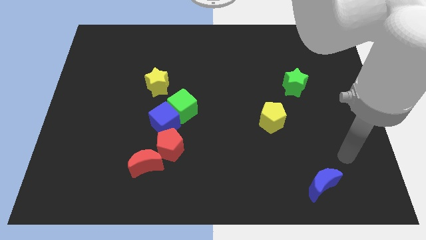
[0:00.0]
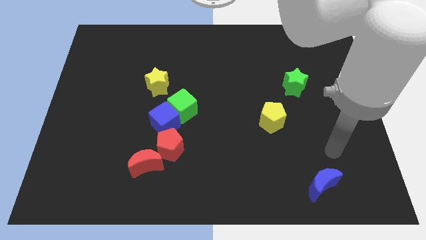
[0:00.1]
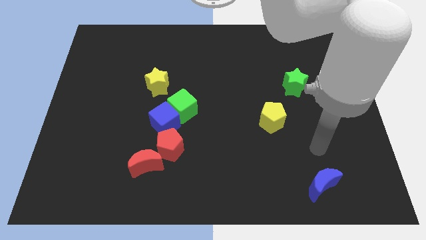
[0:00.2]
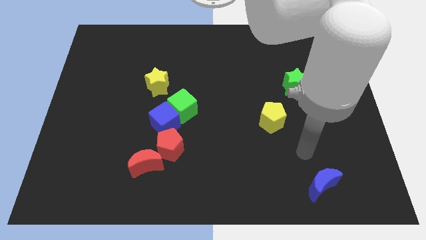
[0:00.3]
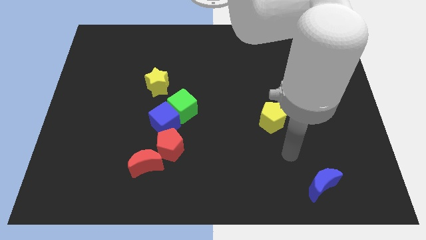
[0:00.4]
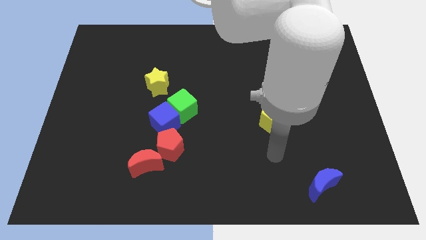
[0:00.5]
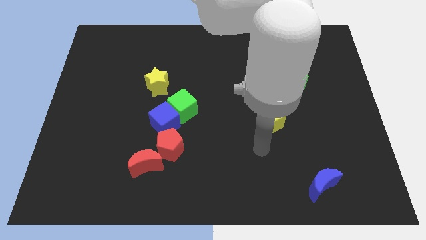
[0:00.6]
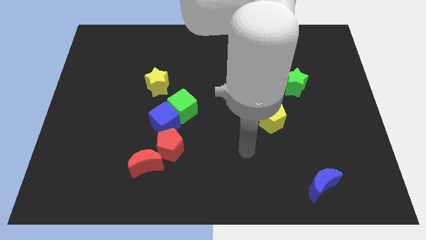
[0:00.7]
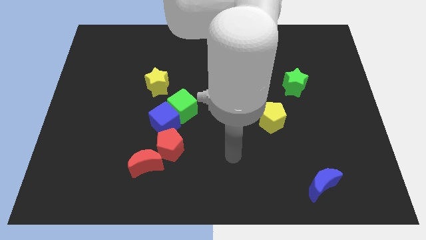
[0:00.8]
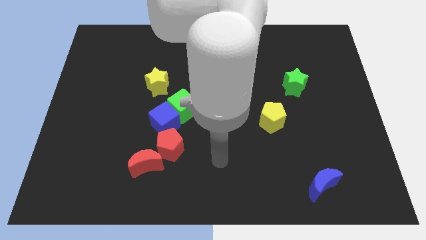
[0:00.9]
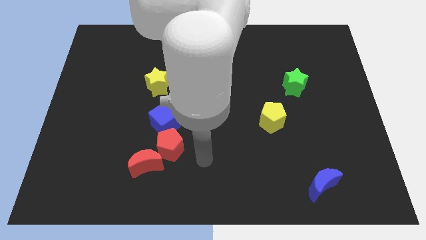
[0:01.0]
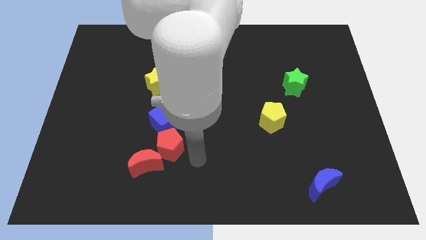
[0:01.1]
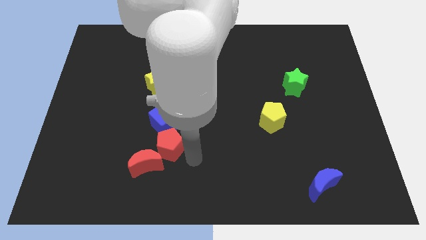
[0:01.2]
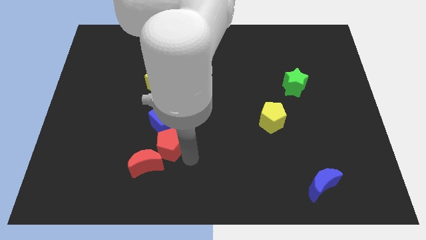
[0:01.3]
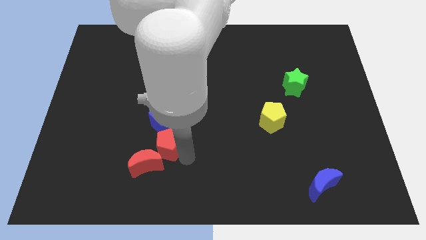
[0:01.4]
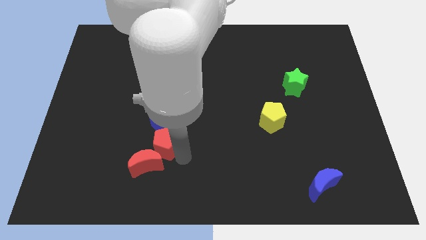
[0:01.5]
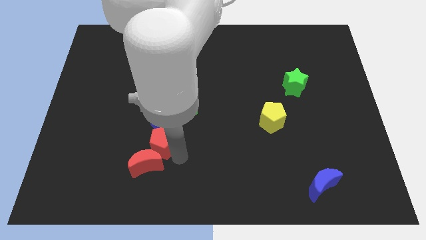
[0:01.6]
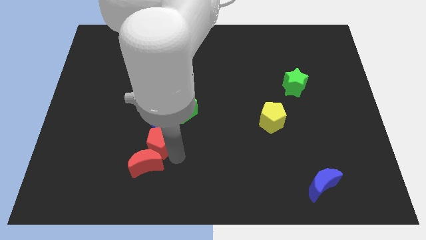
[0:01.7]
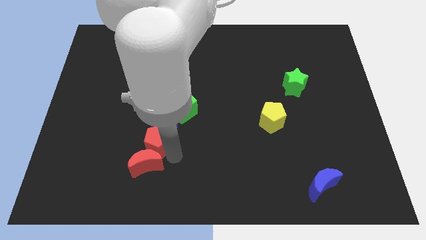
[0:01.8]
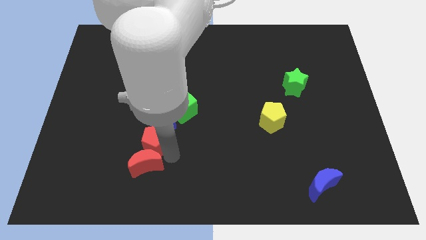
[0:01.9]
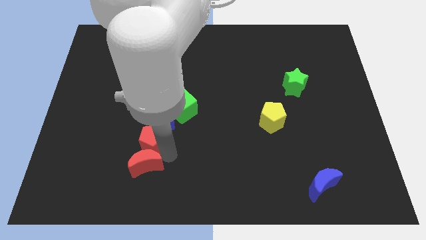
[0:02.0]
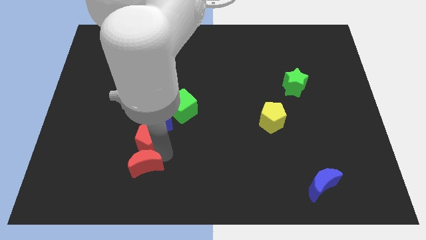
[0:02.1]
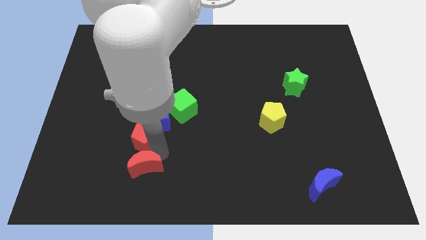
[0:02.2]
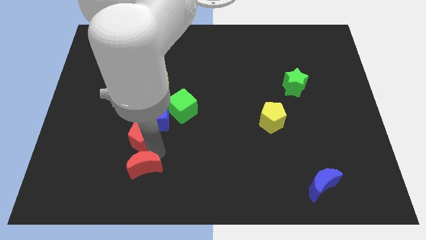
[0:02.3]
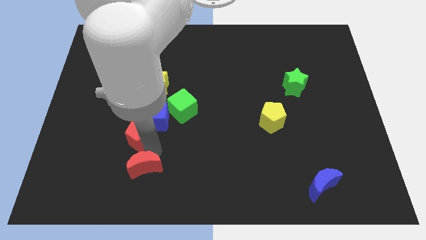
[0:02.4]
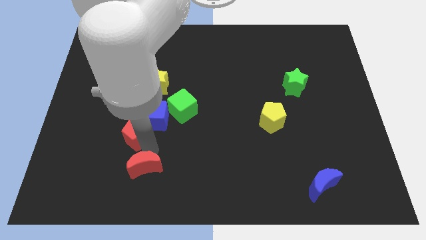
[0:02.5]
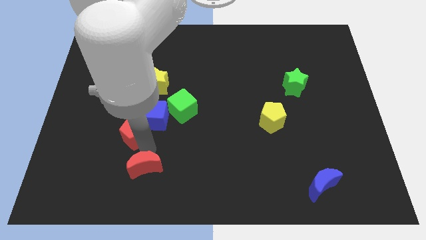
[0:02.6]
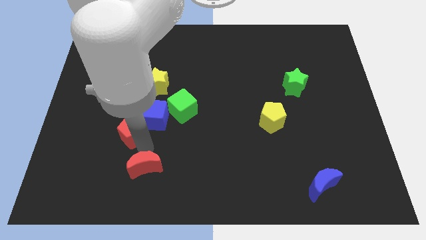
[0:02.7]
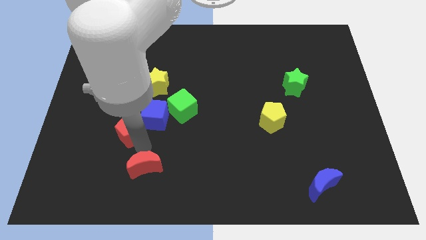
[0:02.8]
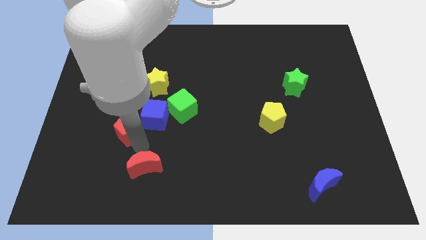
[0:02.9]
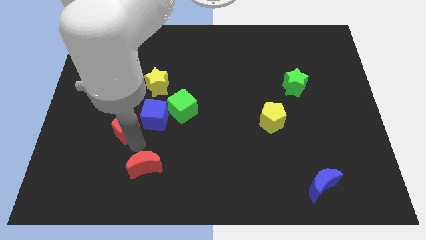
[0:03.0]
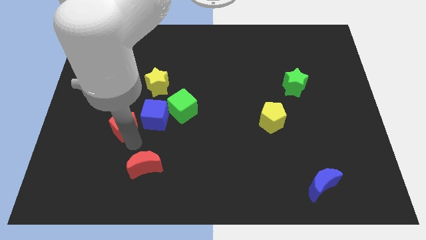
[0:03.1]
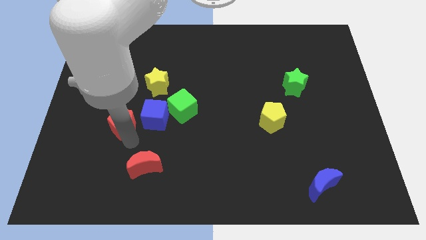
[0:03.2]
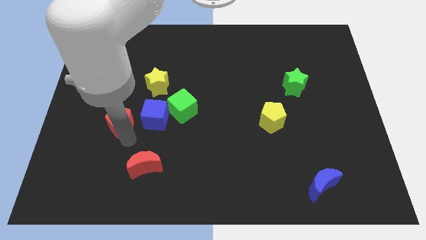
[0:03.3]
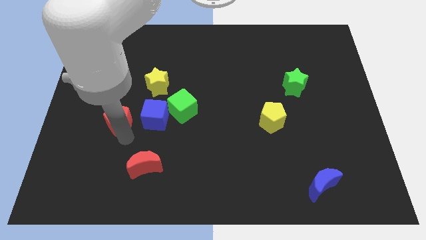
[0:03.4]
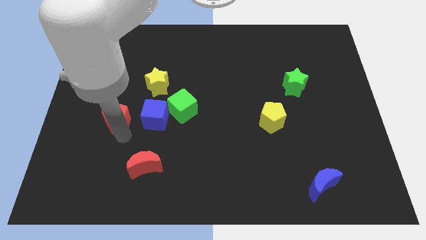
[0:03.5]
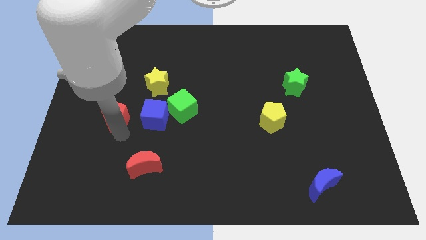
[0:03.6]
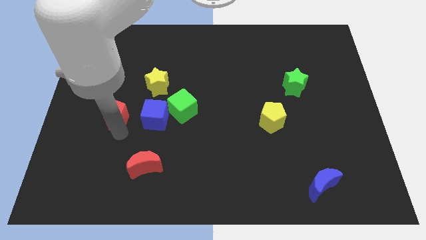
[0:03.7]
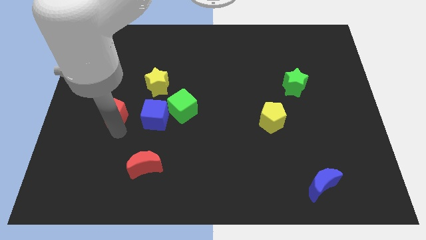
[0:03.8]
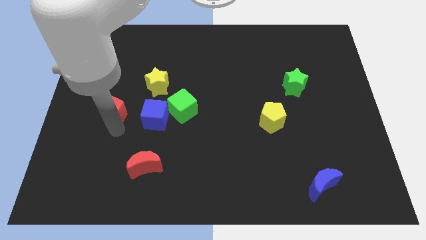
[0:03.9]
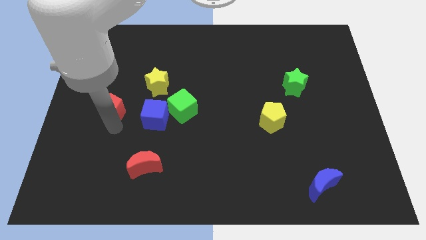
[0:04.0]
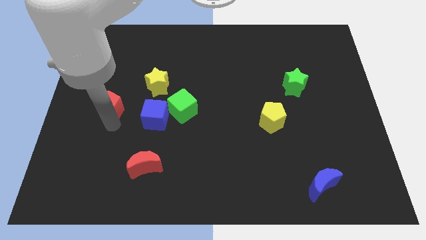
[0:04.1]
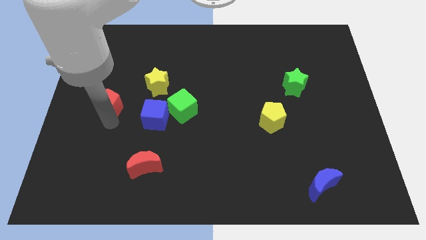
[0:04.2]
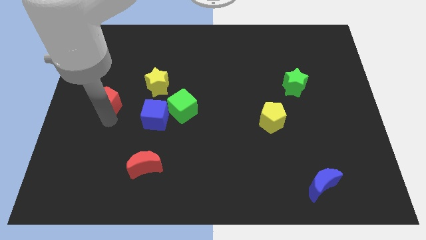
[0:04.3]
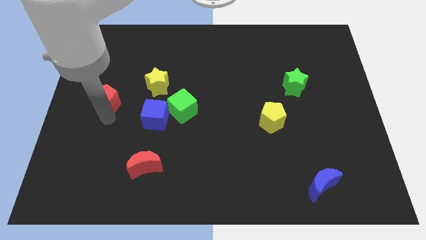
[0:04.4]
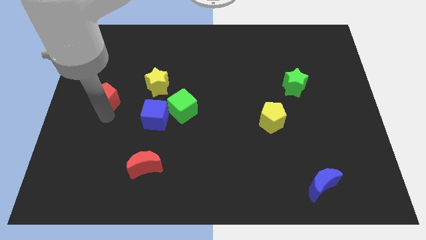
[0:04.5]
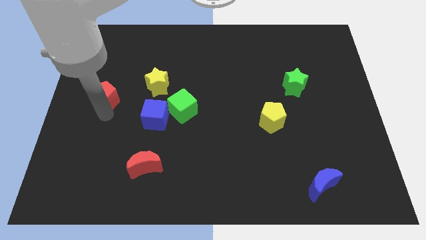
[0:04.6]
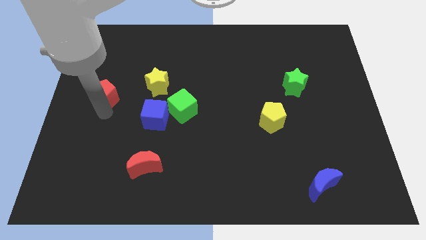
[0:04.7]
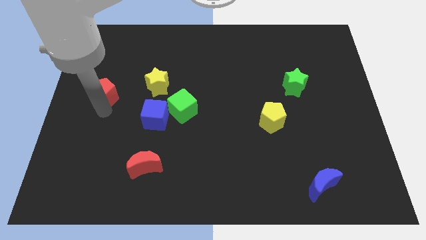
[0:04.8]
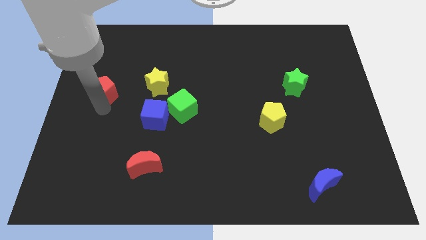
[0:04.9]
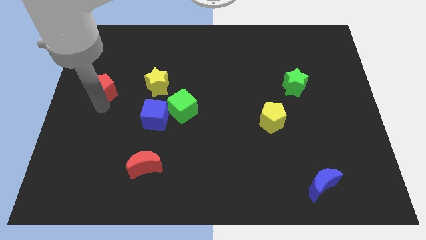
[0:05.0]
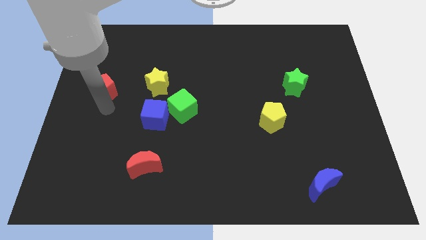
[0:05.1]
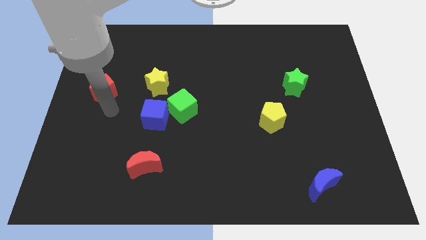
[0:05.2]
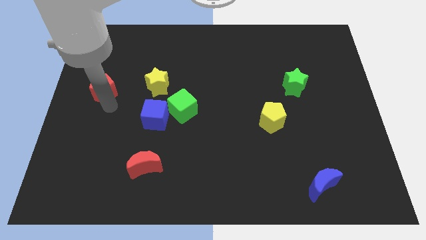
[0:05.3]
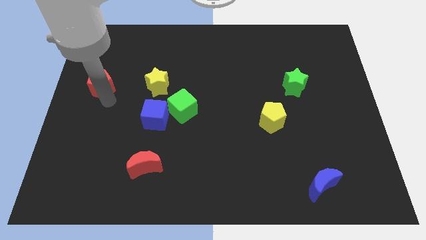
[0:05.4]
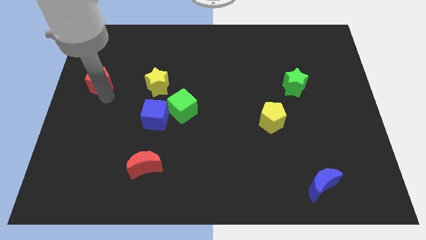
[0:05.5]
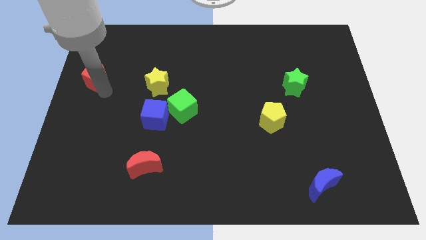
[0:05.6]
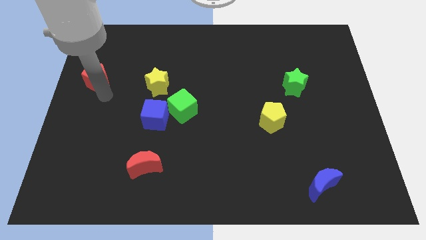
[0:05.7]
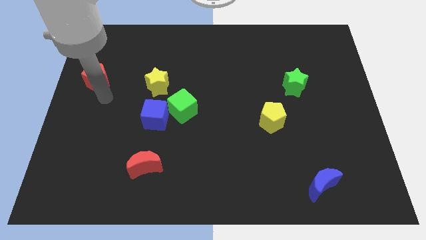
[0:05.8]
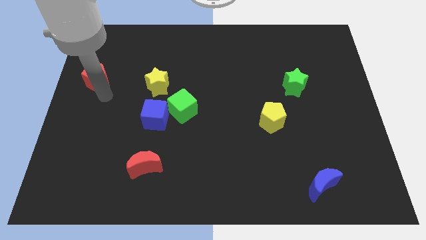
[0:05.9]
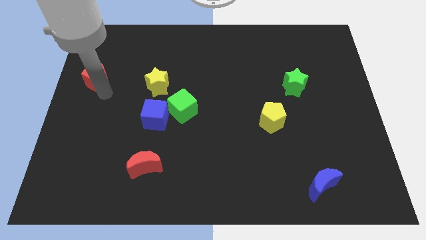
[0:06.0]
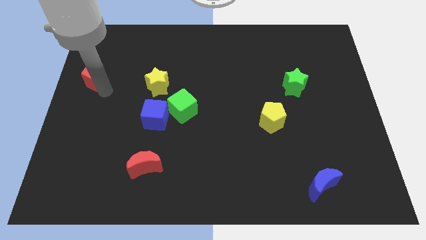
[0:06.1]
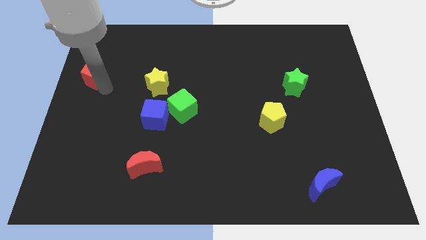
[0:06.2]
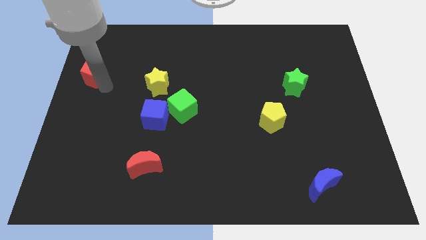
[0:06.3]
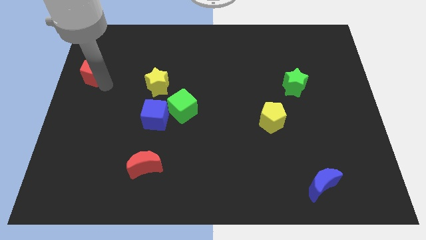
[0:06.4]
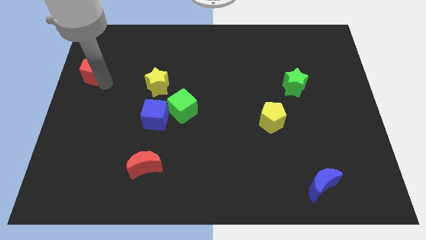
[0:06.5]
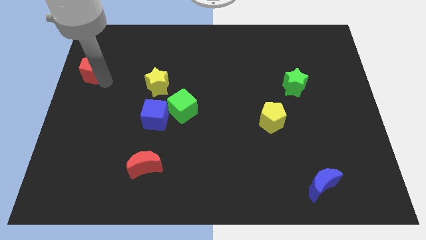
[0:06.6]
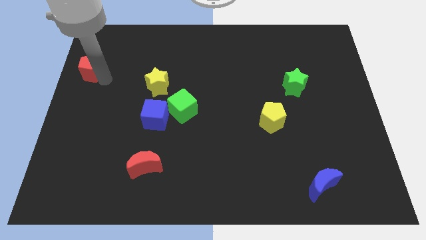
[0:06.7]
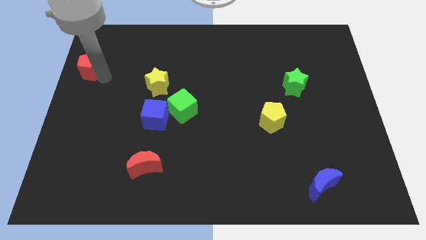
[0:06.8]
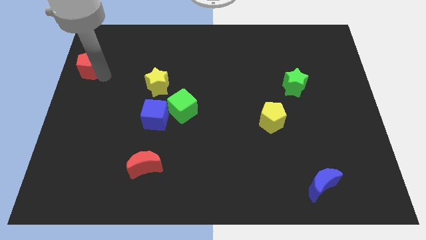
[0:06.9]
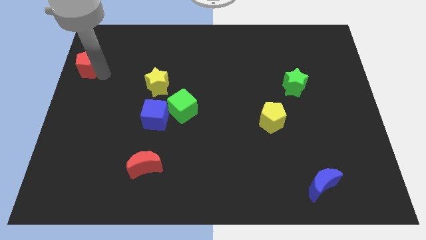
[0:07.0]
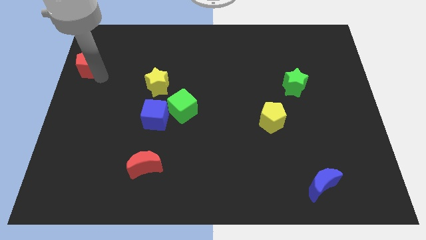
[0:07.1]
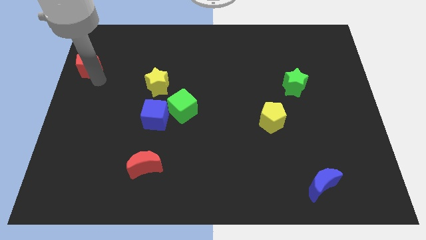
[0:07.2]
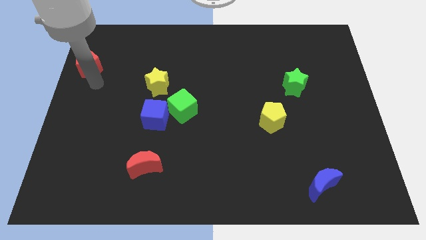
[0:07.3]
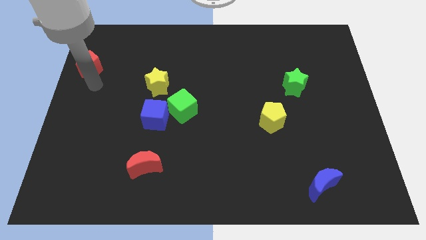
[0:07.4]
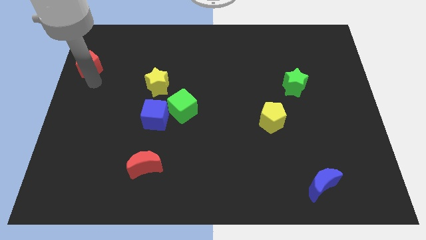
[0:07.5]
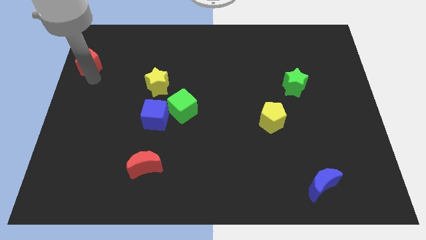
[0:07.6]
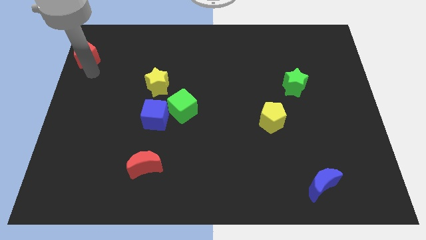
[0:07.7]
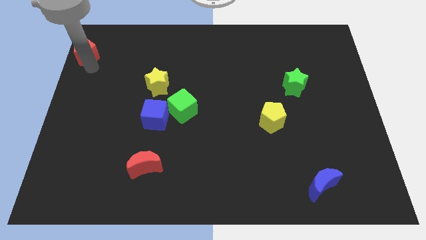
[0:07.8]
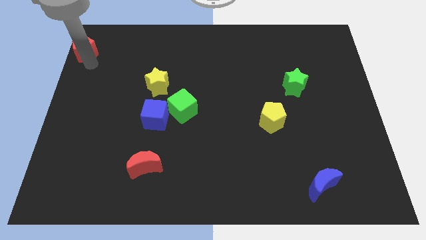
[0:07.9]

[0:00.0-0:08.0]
move the red pentagon to the top left corner

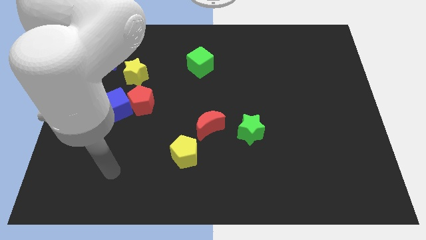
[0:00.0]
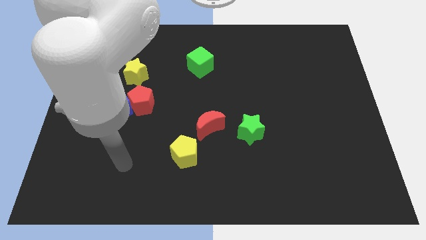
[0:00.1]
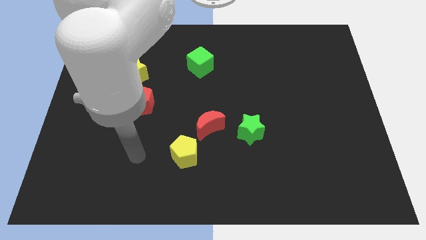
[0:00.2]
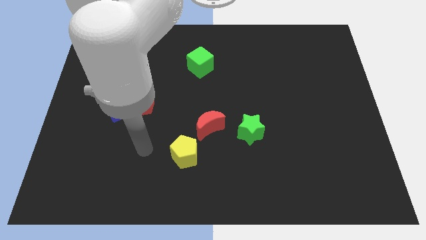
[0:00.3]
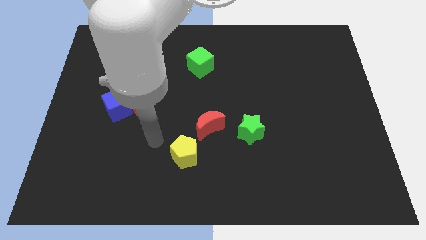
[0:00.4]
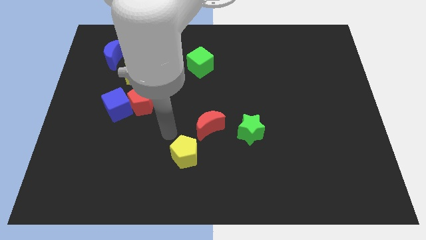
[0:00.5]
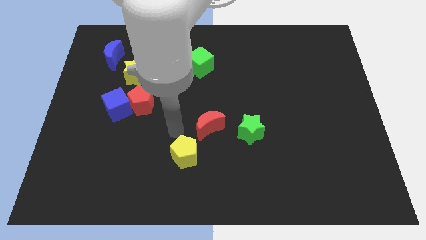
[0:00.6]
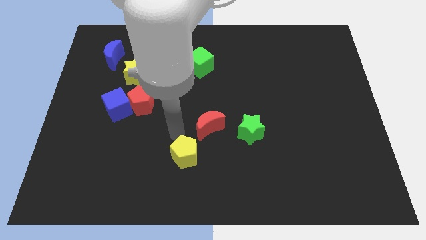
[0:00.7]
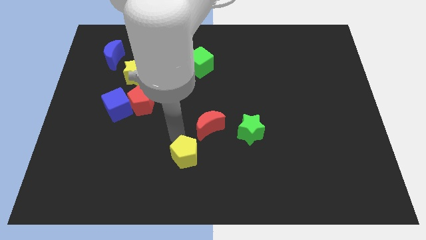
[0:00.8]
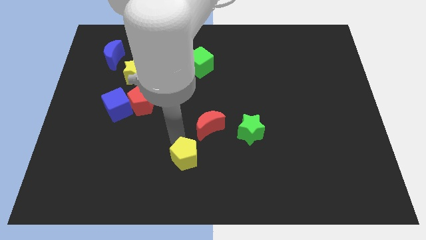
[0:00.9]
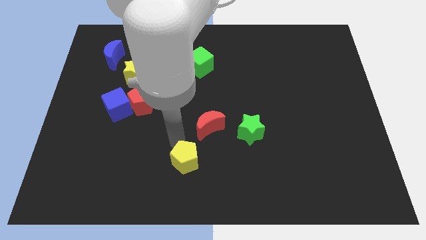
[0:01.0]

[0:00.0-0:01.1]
slide the yellow pentagon to the bottom
